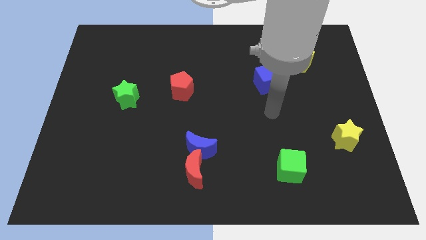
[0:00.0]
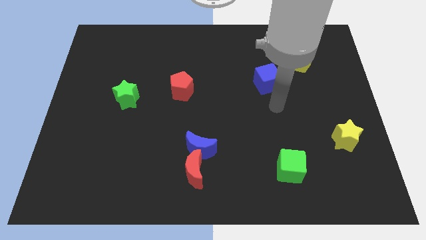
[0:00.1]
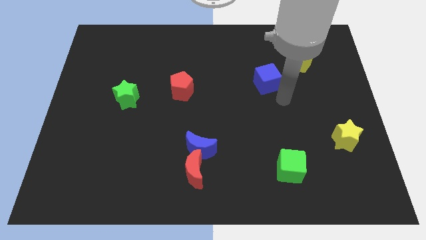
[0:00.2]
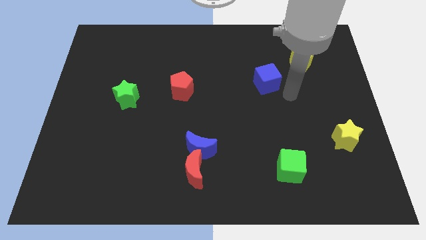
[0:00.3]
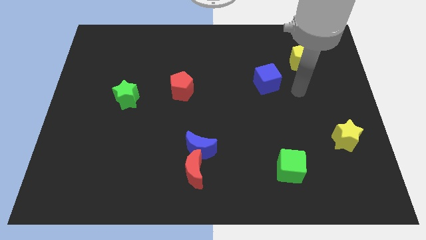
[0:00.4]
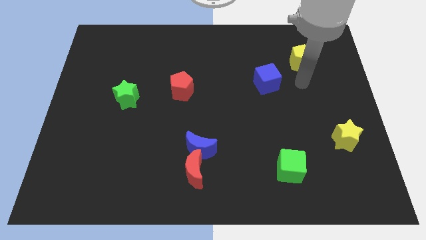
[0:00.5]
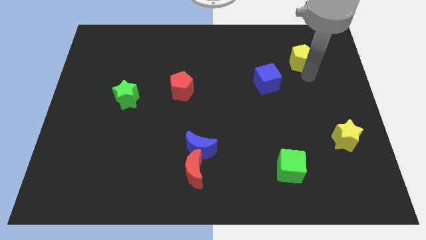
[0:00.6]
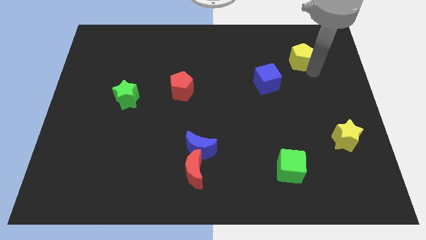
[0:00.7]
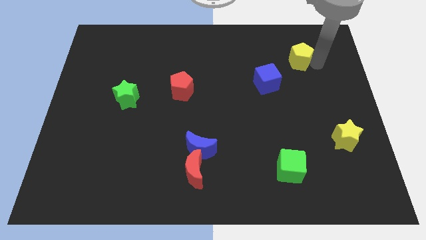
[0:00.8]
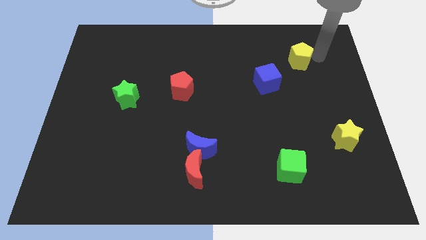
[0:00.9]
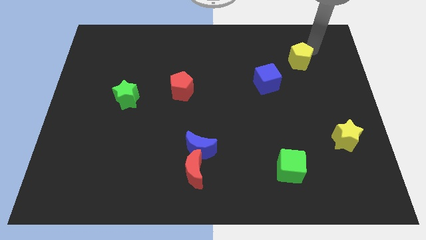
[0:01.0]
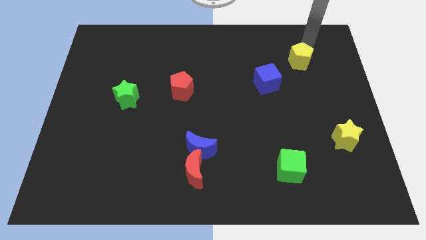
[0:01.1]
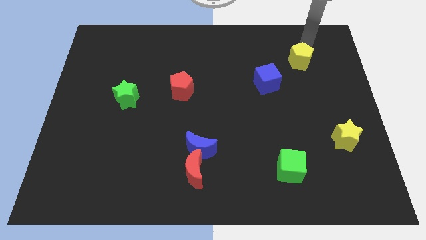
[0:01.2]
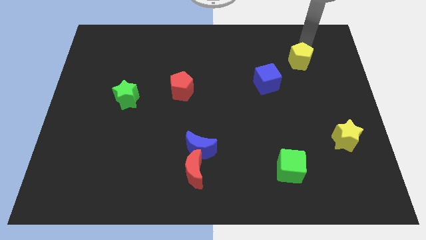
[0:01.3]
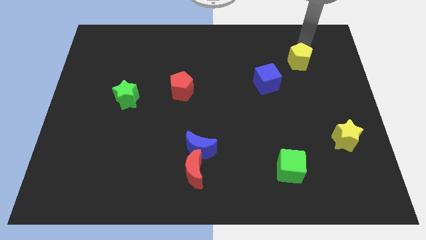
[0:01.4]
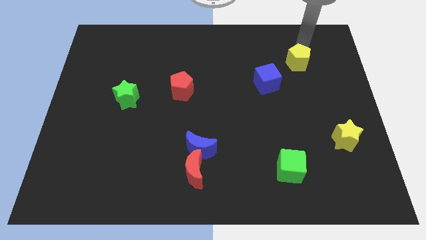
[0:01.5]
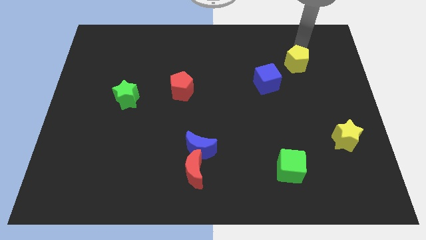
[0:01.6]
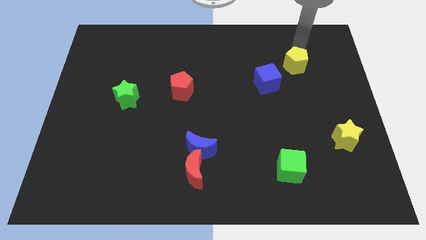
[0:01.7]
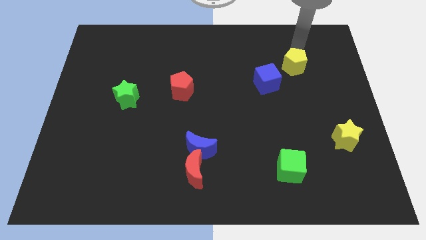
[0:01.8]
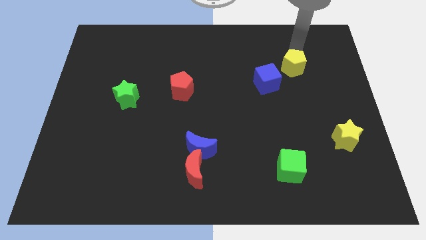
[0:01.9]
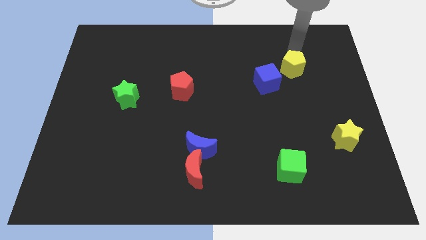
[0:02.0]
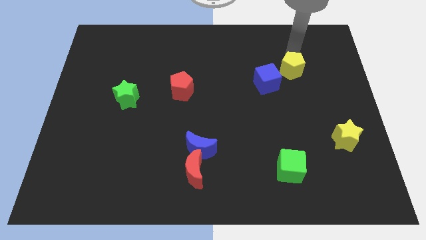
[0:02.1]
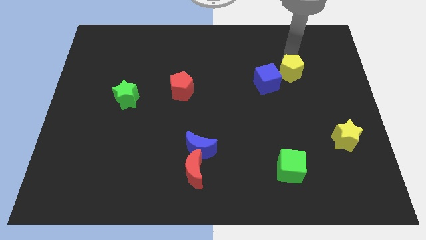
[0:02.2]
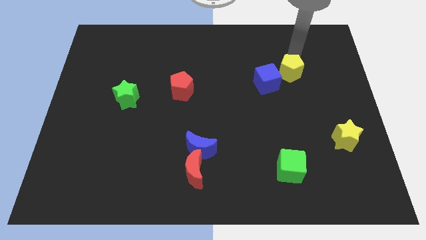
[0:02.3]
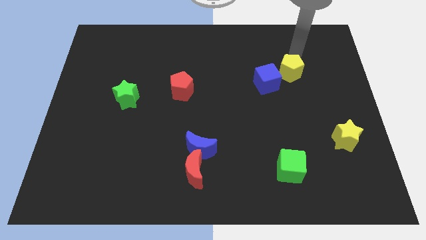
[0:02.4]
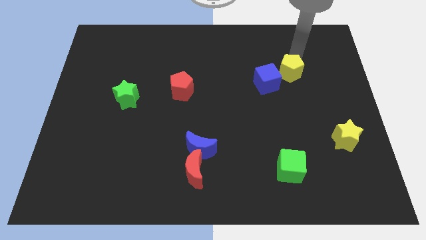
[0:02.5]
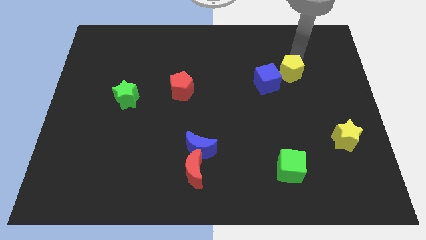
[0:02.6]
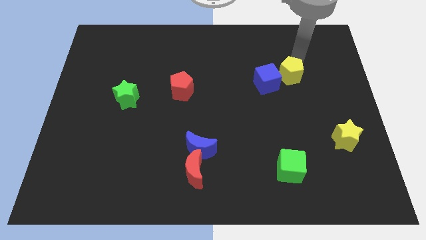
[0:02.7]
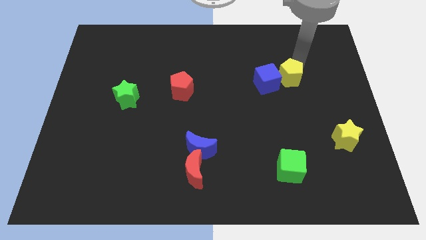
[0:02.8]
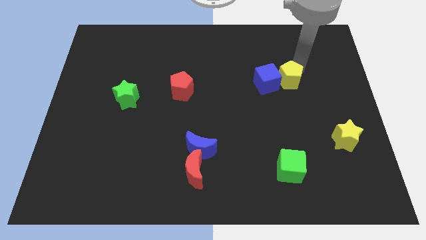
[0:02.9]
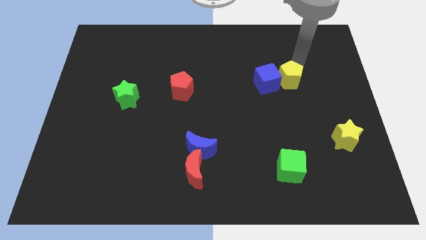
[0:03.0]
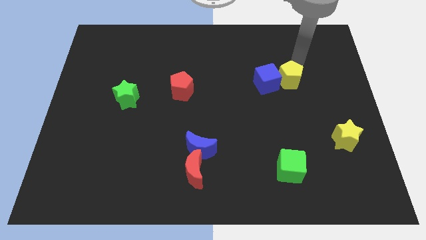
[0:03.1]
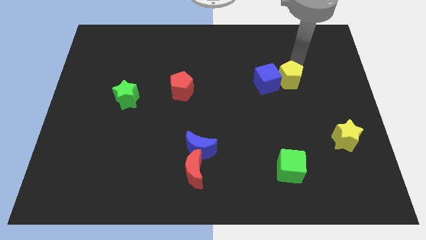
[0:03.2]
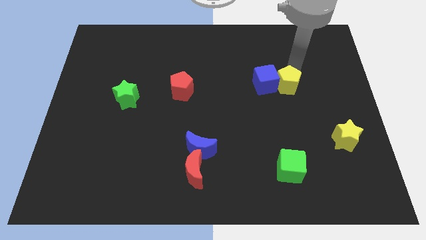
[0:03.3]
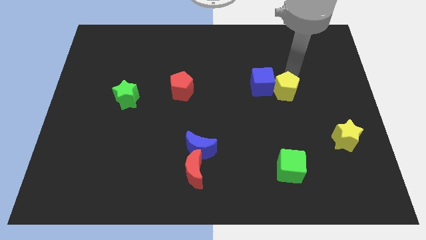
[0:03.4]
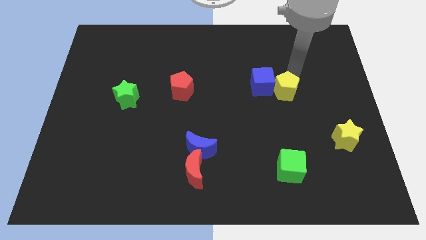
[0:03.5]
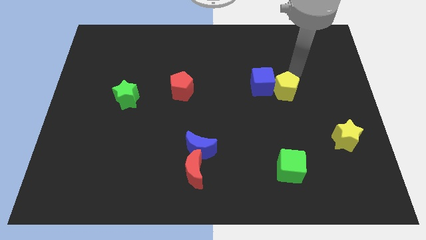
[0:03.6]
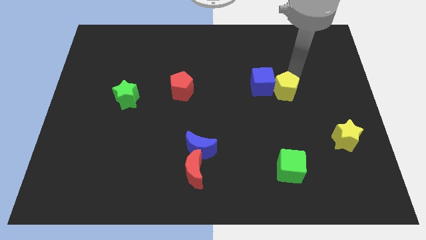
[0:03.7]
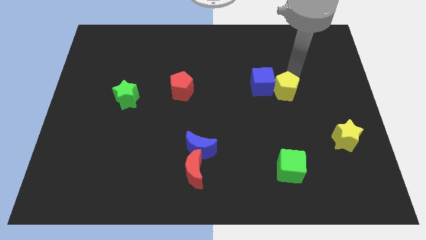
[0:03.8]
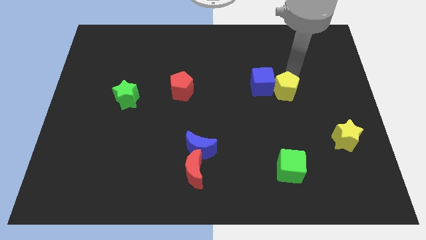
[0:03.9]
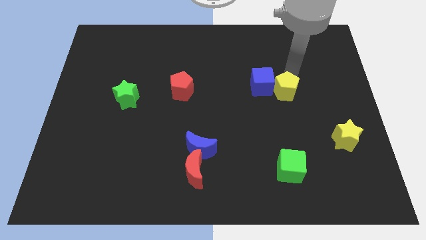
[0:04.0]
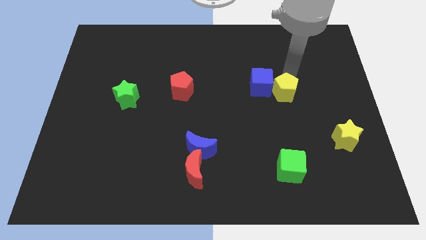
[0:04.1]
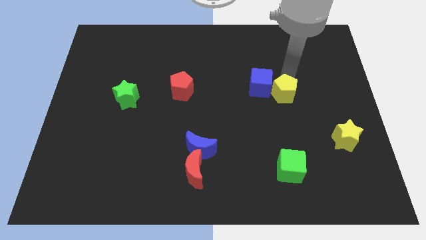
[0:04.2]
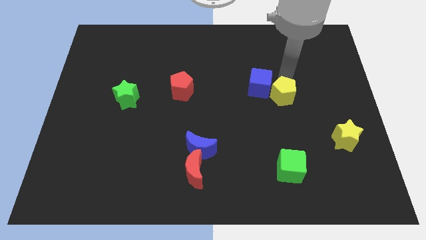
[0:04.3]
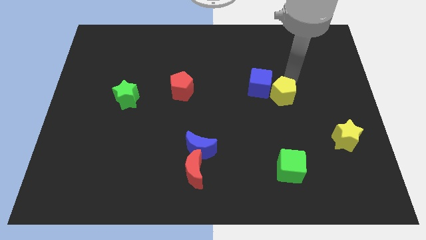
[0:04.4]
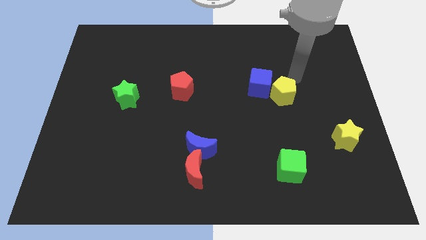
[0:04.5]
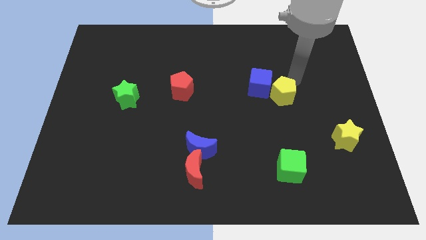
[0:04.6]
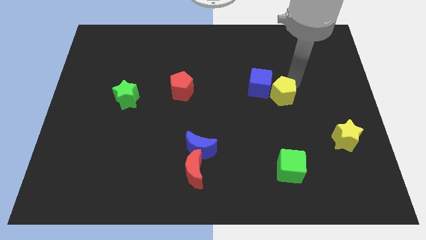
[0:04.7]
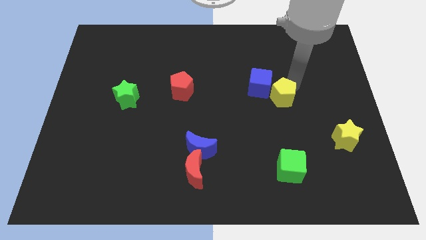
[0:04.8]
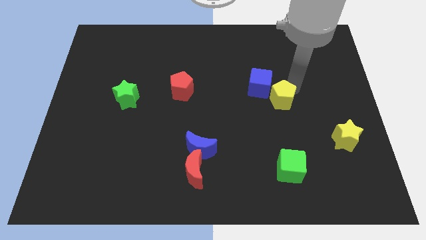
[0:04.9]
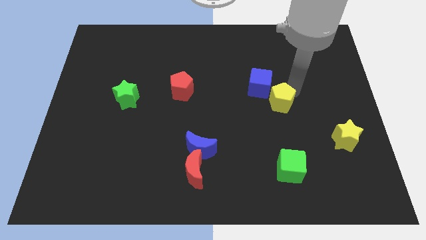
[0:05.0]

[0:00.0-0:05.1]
push the yellow pentagon below the blue cube

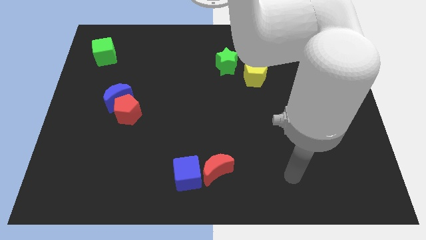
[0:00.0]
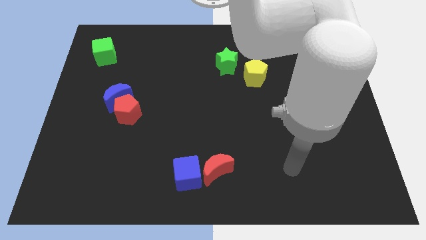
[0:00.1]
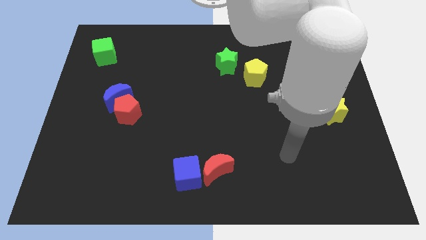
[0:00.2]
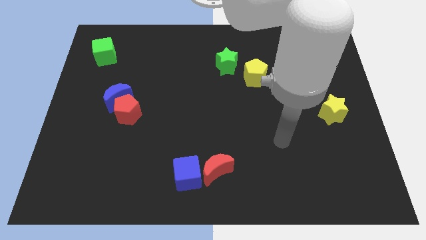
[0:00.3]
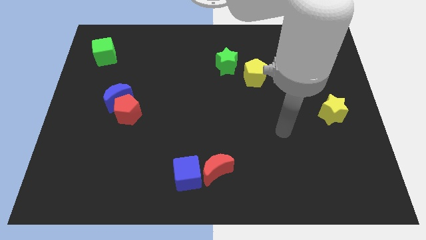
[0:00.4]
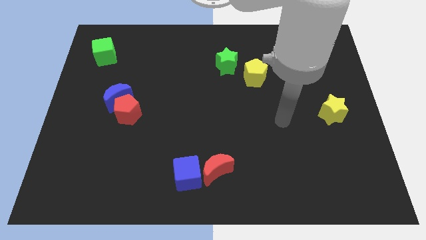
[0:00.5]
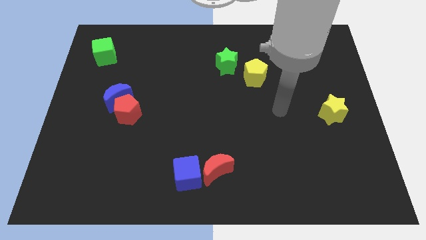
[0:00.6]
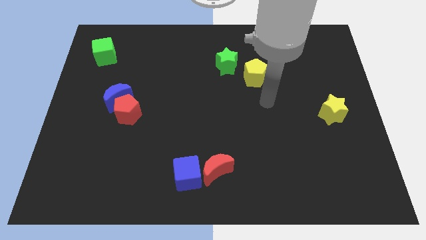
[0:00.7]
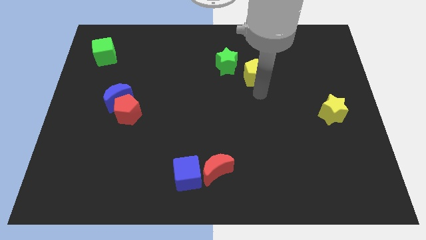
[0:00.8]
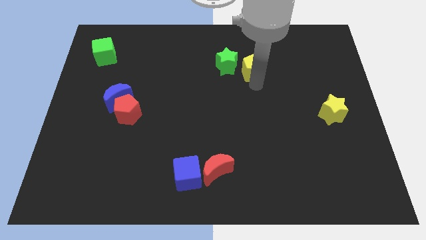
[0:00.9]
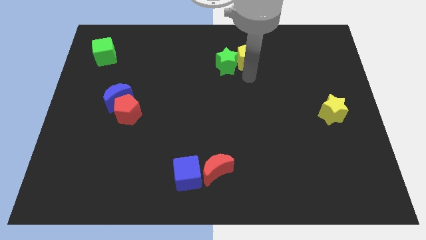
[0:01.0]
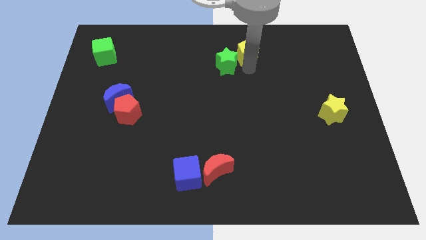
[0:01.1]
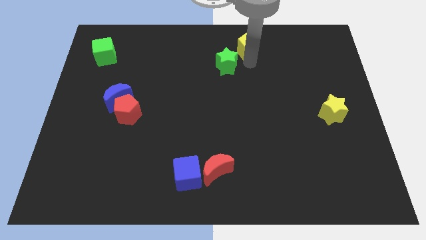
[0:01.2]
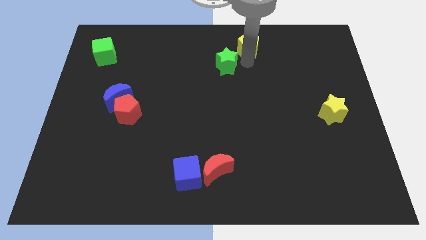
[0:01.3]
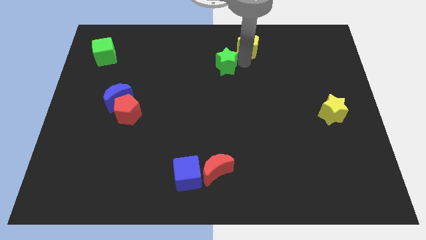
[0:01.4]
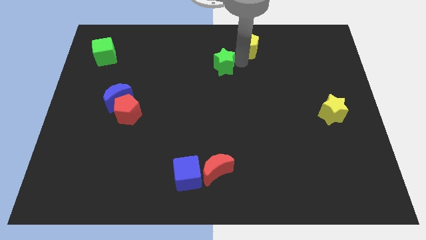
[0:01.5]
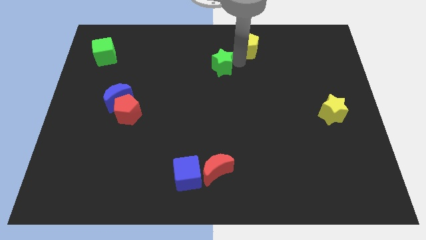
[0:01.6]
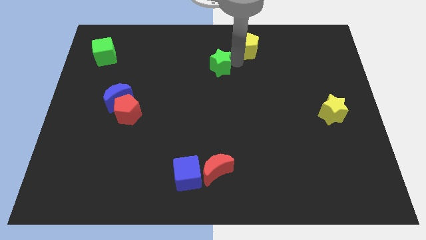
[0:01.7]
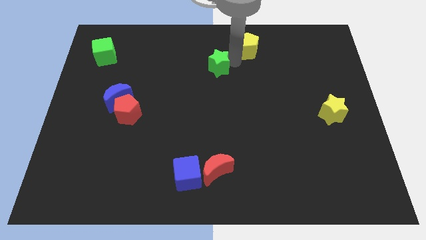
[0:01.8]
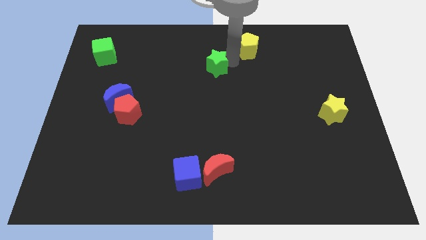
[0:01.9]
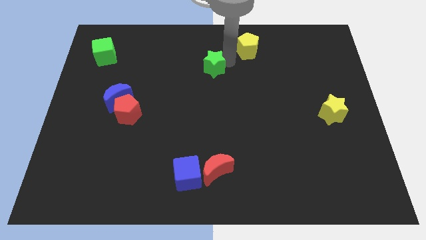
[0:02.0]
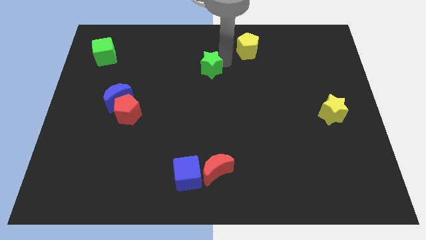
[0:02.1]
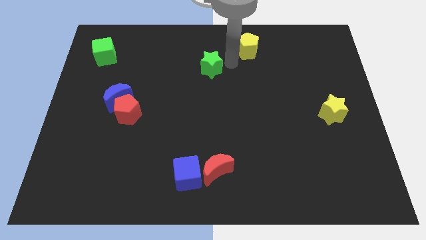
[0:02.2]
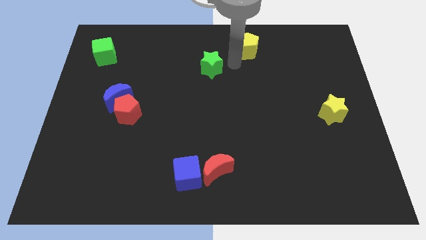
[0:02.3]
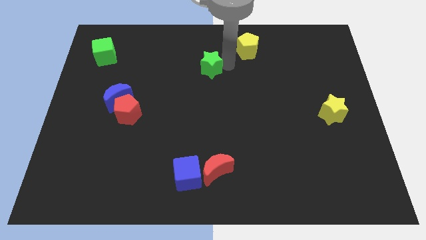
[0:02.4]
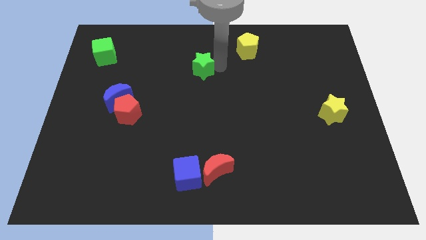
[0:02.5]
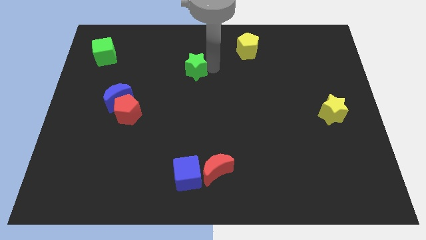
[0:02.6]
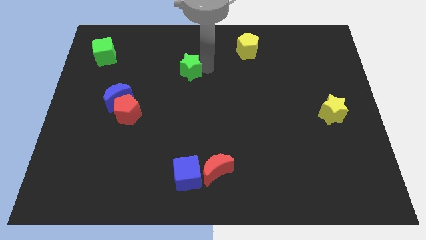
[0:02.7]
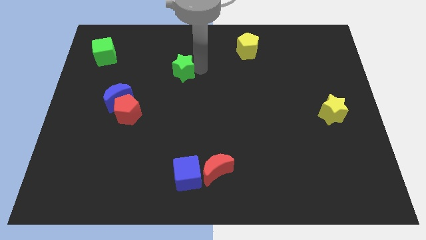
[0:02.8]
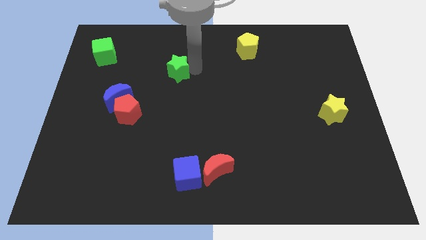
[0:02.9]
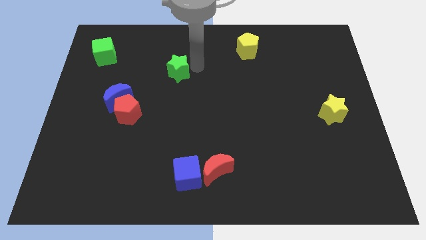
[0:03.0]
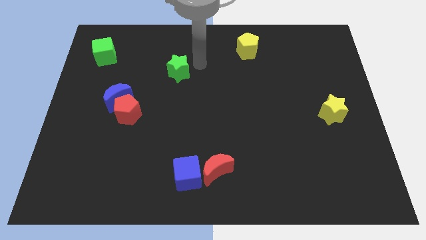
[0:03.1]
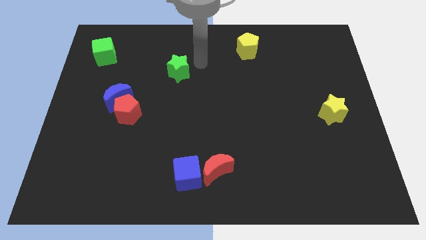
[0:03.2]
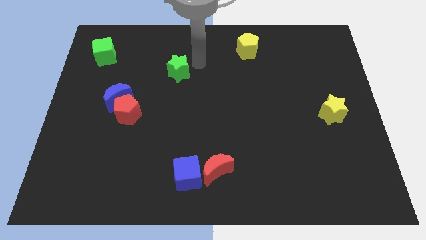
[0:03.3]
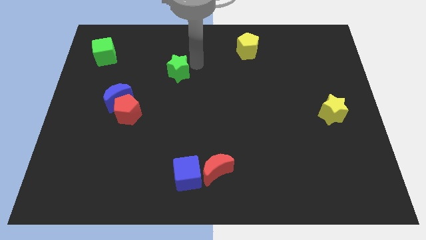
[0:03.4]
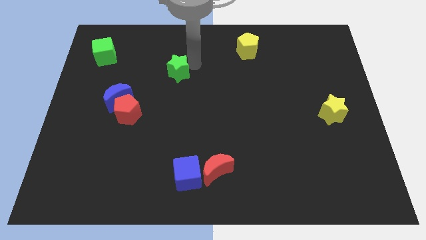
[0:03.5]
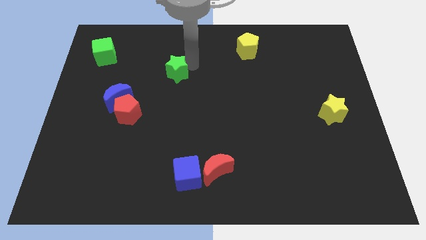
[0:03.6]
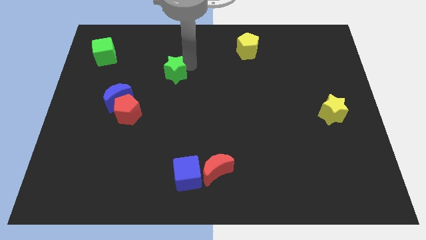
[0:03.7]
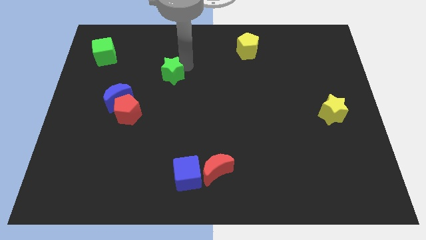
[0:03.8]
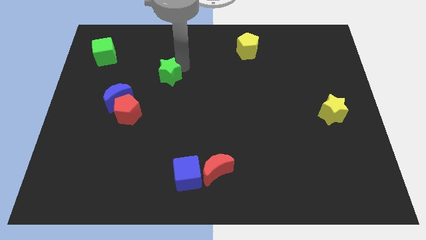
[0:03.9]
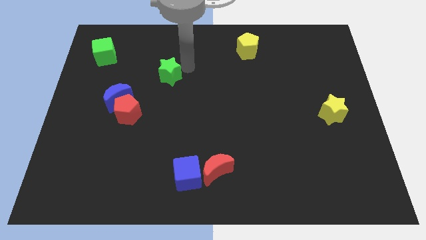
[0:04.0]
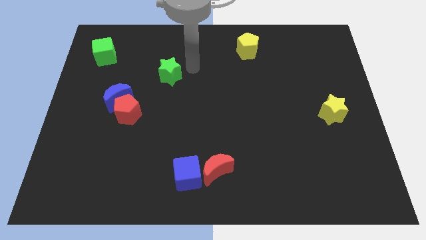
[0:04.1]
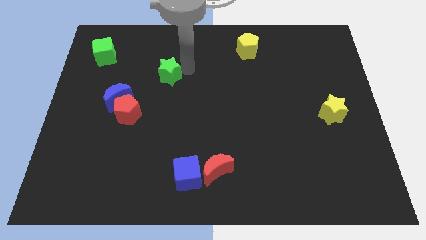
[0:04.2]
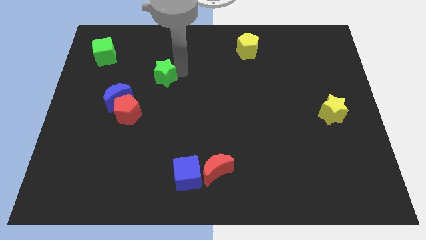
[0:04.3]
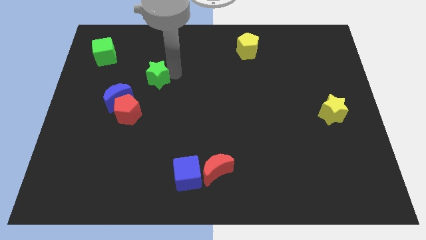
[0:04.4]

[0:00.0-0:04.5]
move the green star to the top right side of the blue moon
